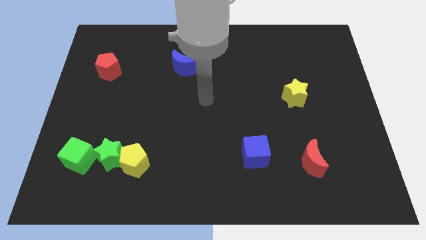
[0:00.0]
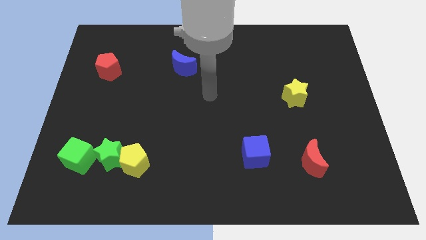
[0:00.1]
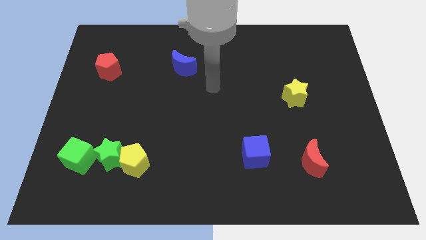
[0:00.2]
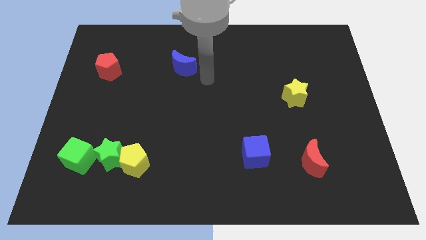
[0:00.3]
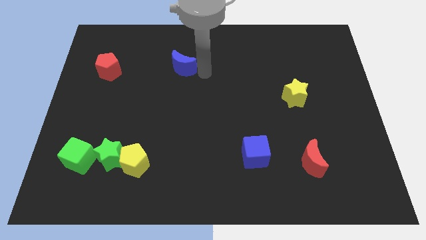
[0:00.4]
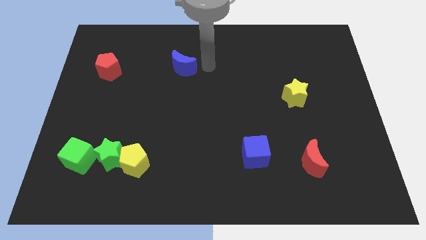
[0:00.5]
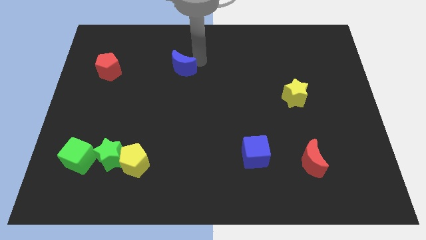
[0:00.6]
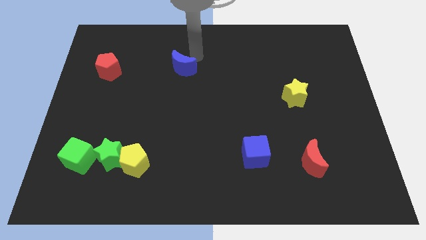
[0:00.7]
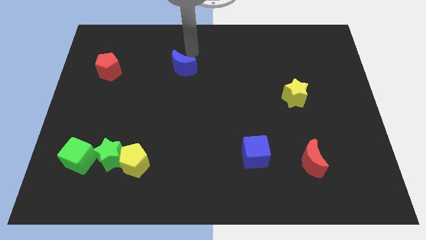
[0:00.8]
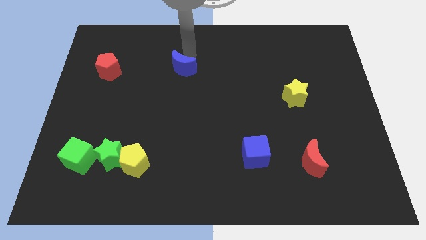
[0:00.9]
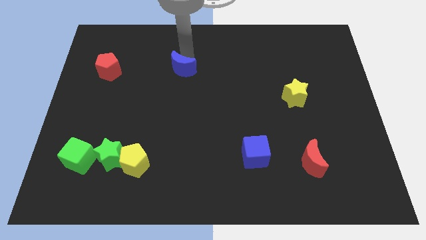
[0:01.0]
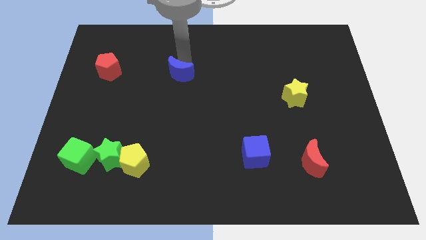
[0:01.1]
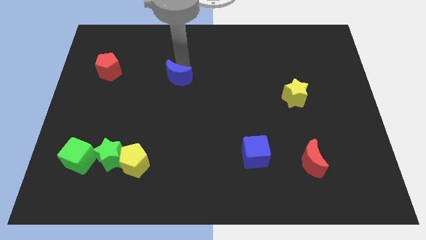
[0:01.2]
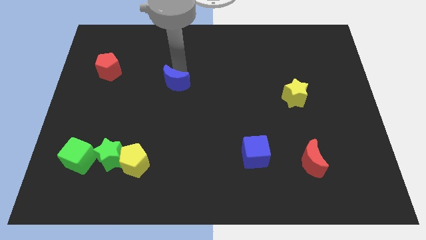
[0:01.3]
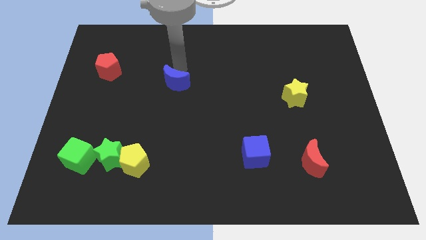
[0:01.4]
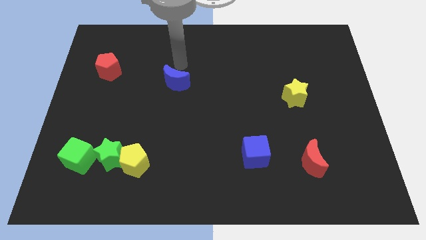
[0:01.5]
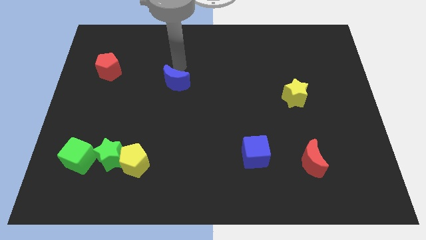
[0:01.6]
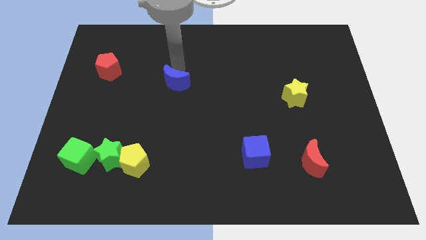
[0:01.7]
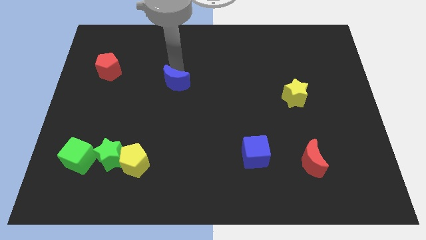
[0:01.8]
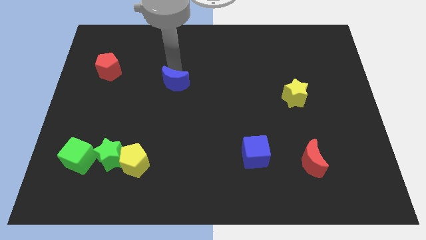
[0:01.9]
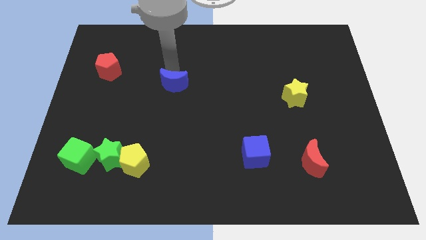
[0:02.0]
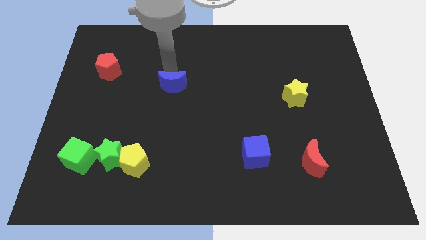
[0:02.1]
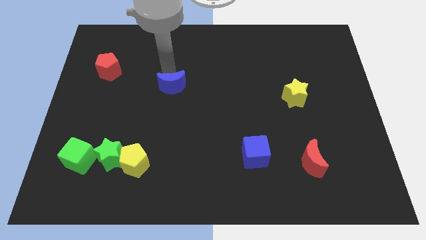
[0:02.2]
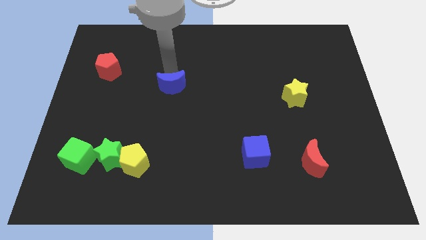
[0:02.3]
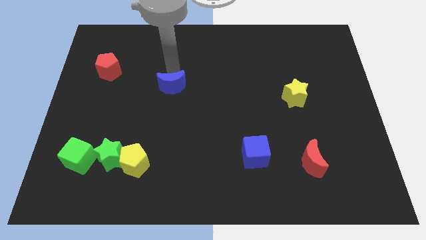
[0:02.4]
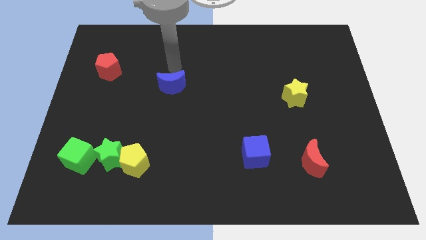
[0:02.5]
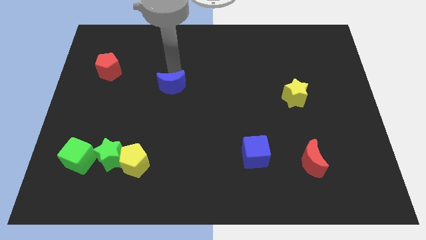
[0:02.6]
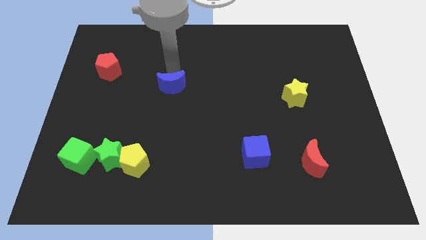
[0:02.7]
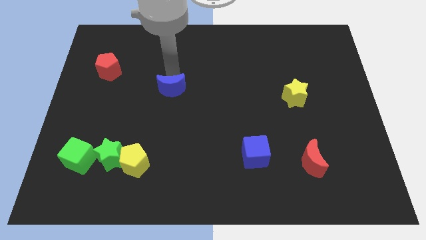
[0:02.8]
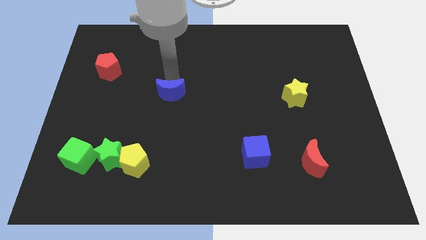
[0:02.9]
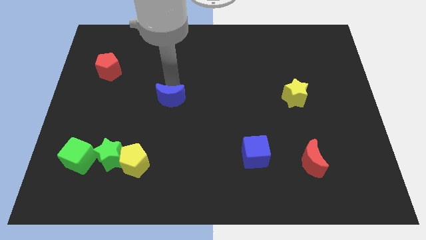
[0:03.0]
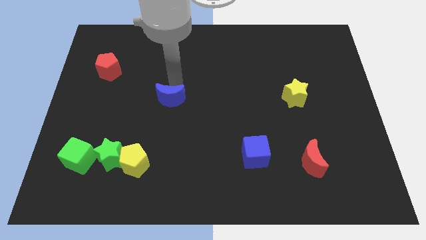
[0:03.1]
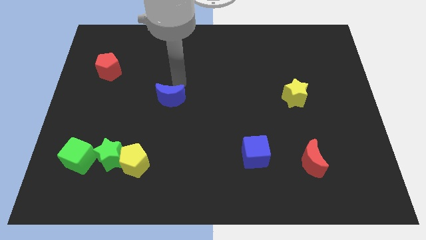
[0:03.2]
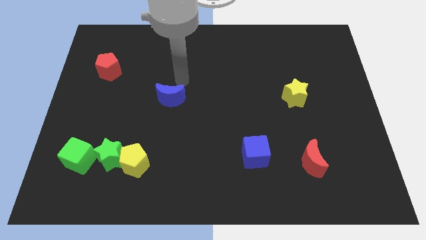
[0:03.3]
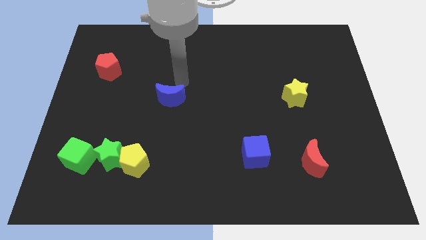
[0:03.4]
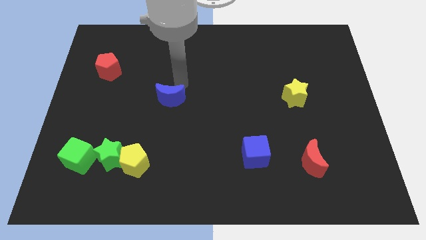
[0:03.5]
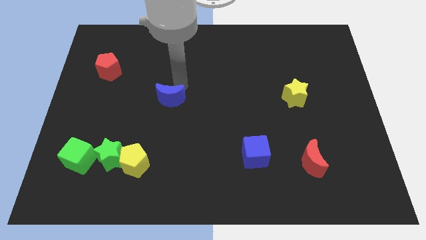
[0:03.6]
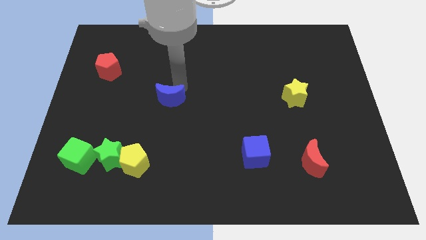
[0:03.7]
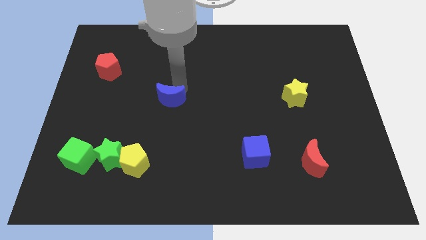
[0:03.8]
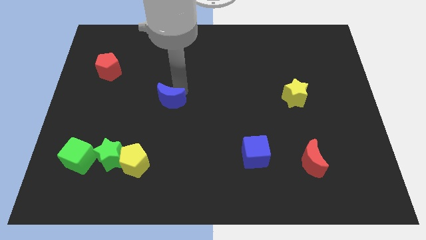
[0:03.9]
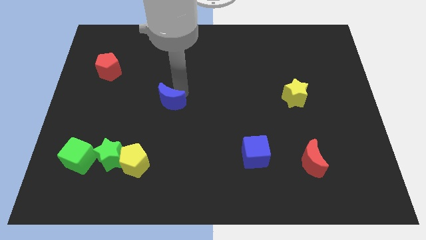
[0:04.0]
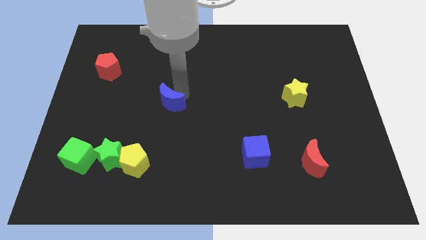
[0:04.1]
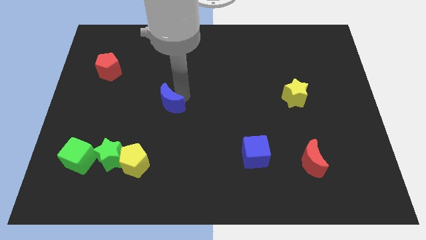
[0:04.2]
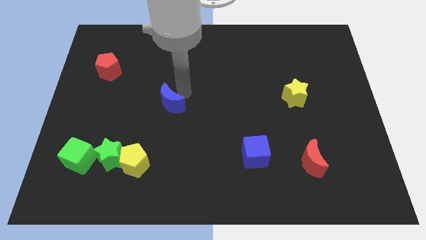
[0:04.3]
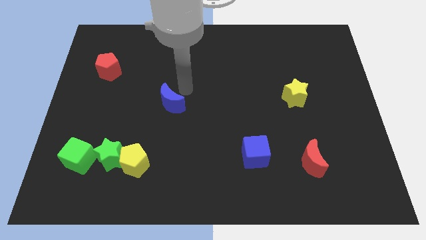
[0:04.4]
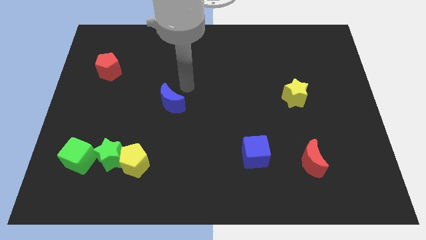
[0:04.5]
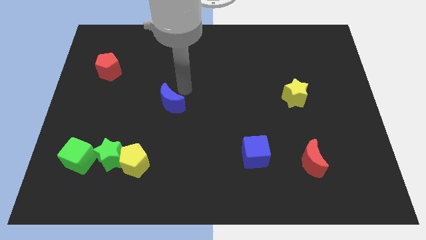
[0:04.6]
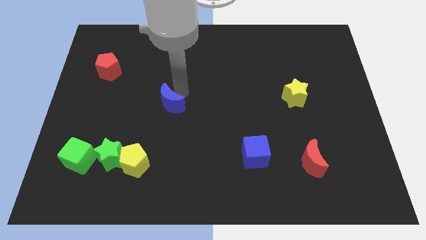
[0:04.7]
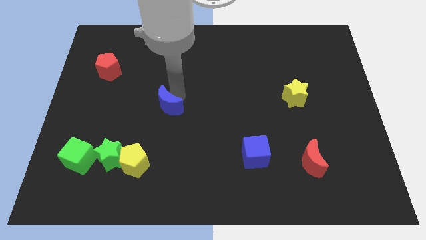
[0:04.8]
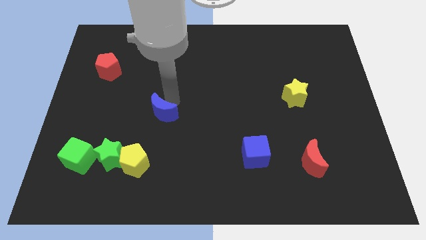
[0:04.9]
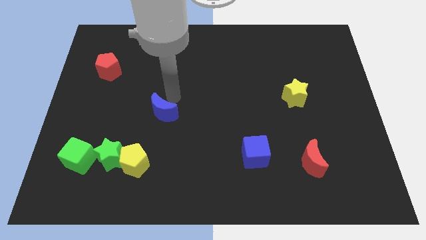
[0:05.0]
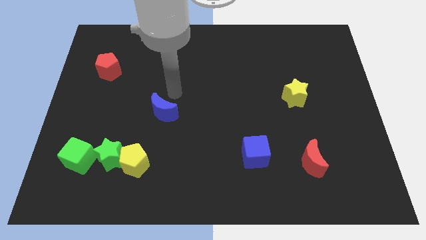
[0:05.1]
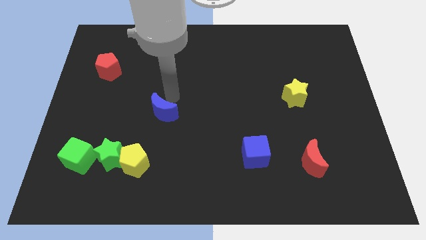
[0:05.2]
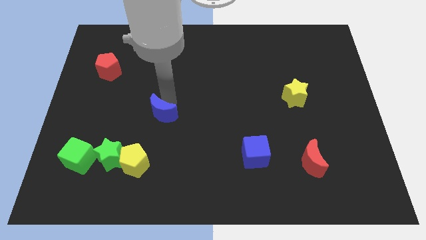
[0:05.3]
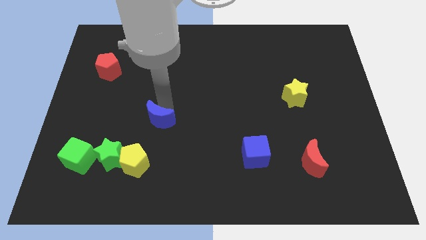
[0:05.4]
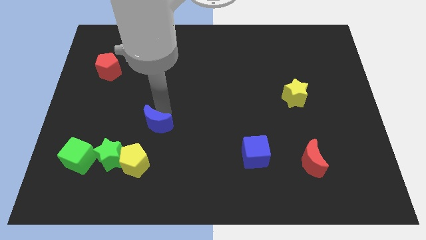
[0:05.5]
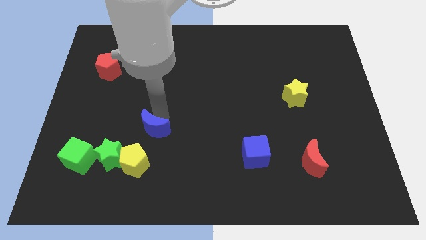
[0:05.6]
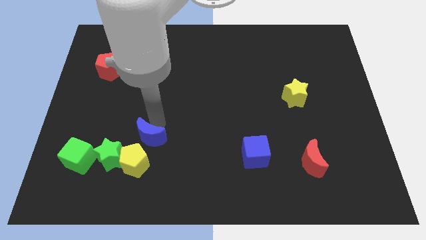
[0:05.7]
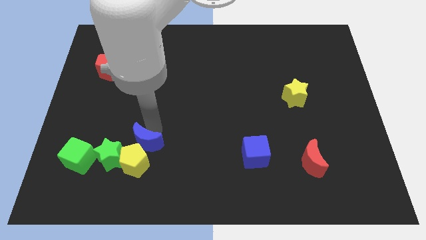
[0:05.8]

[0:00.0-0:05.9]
move the blue moon next to the yellow pentagon
